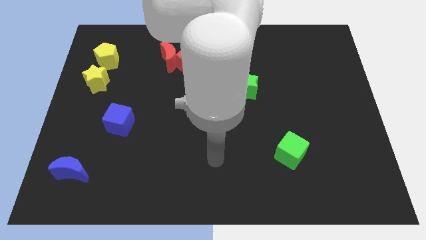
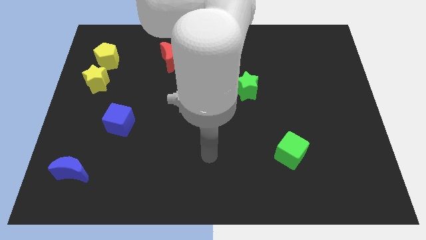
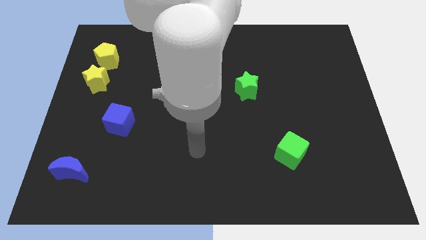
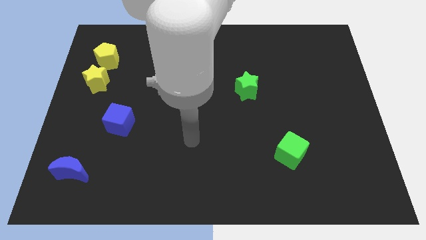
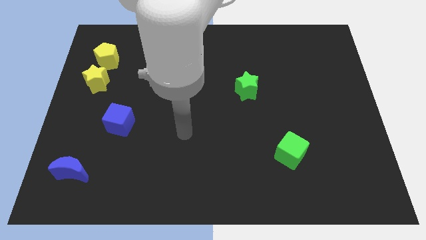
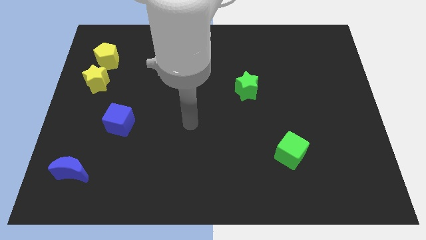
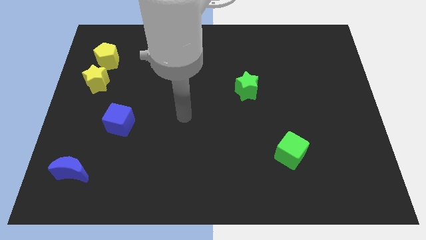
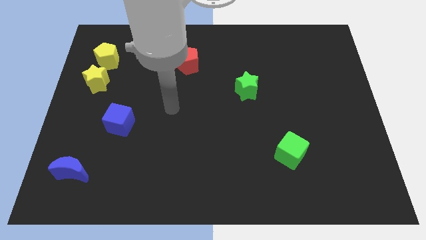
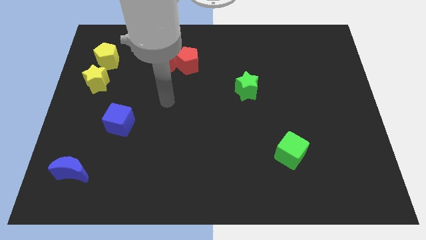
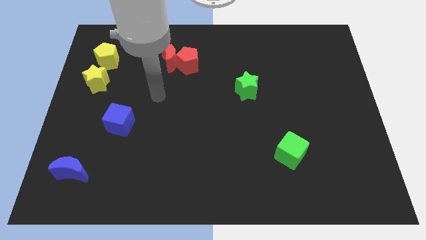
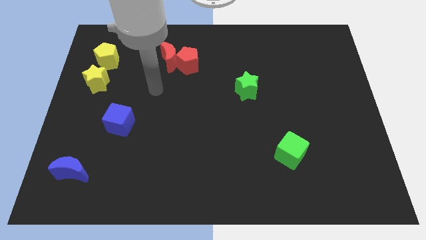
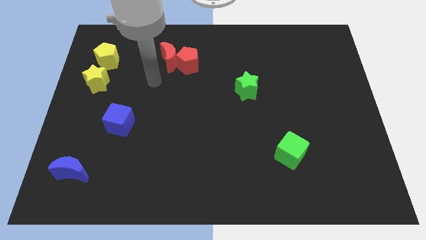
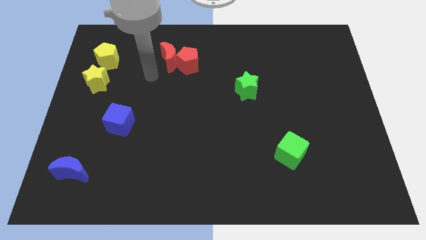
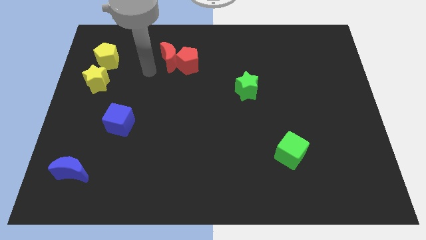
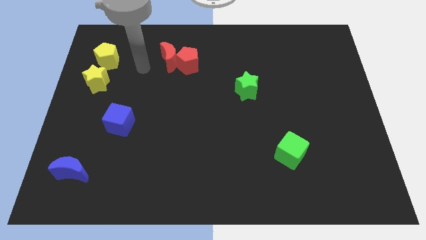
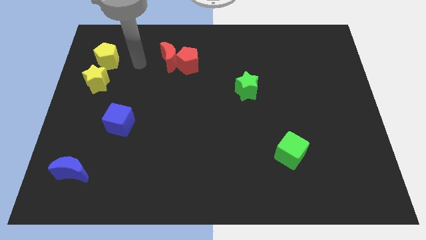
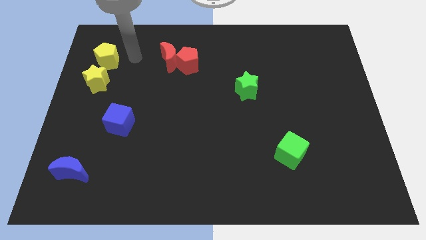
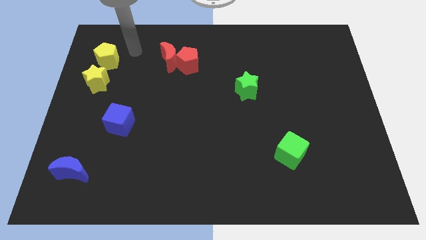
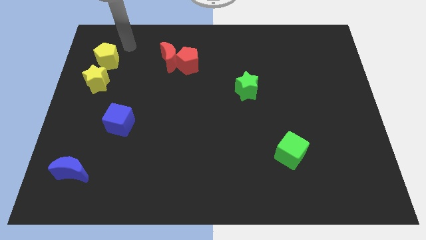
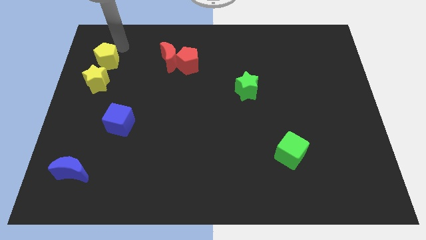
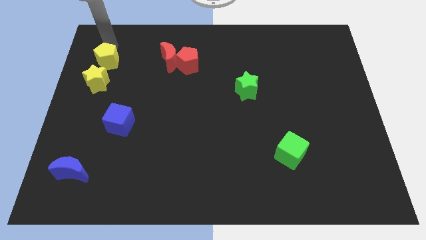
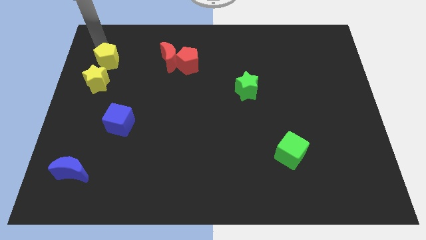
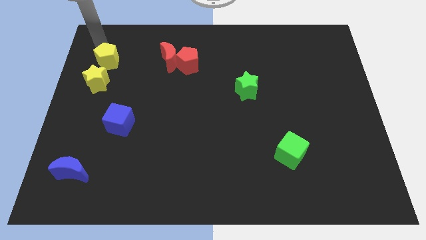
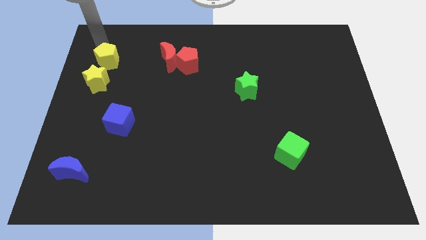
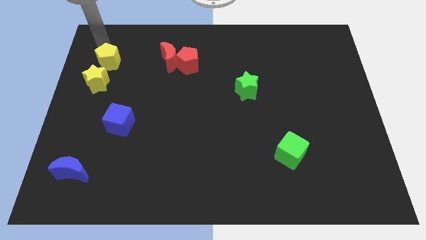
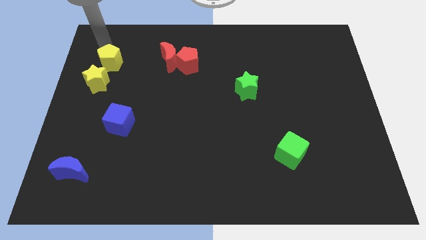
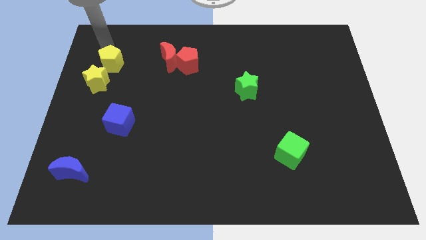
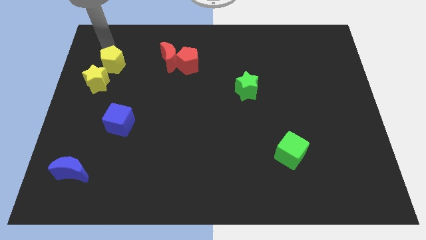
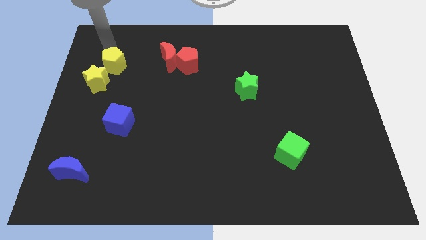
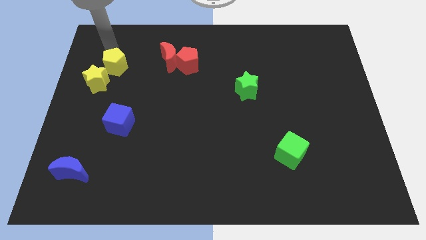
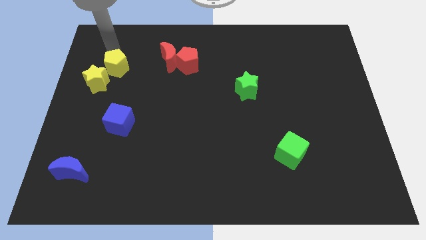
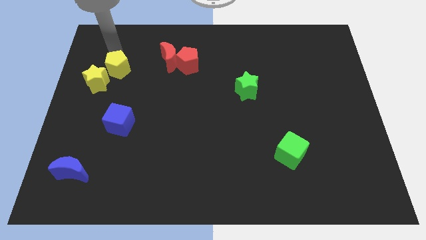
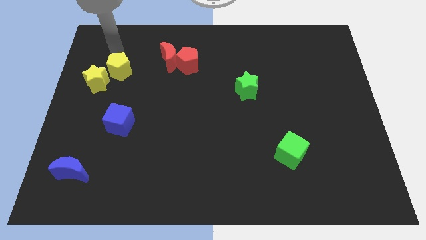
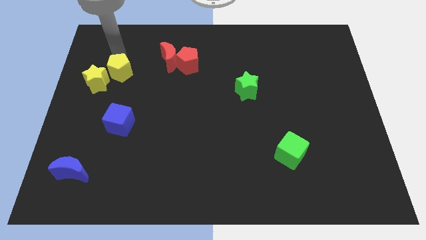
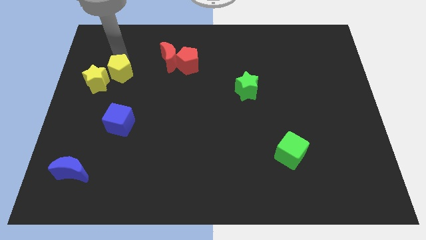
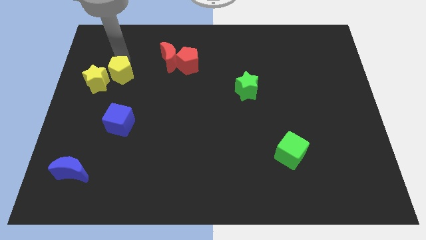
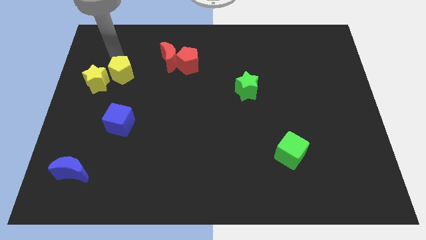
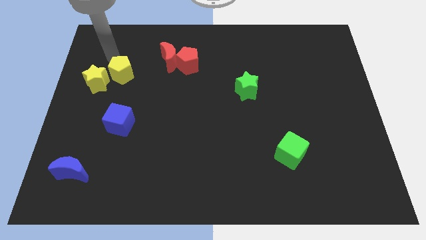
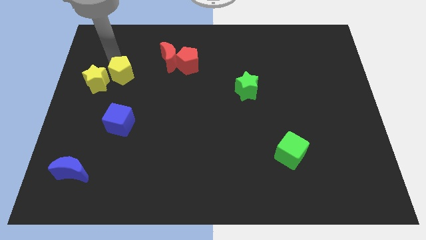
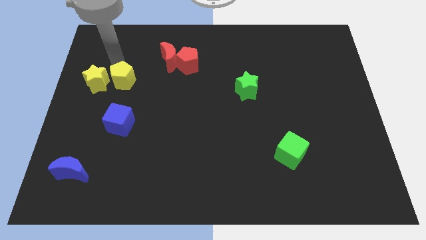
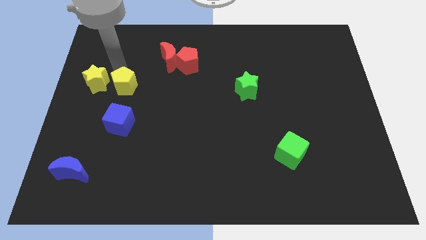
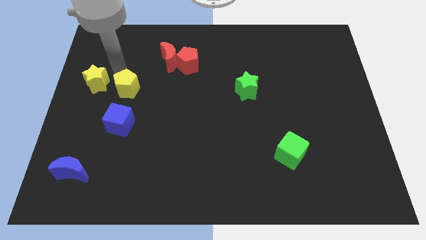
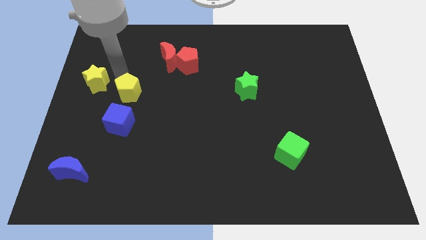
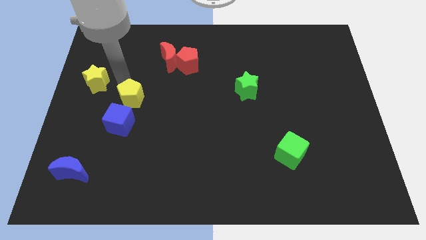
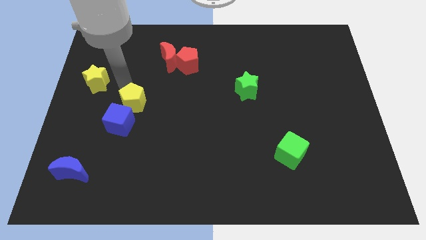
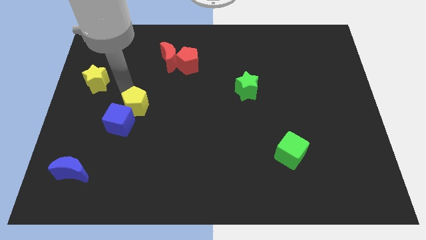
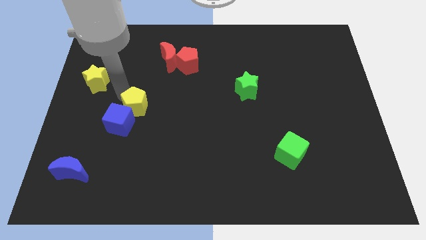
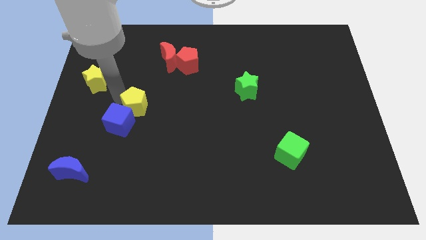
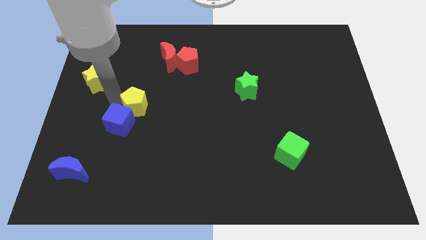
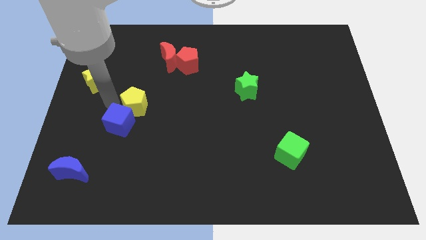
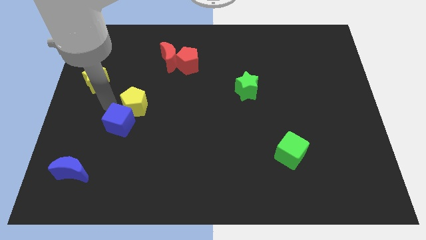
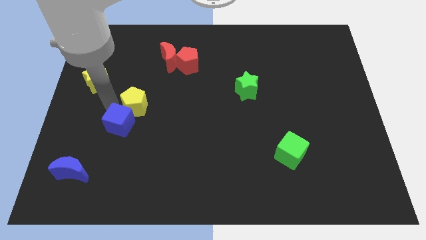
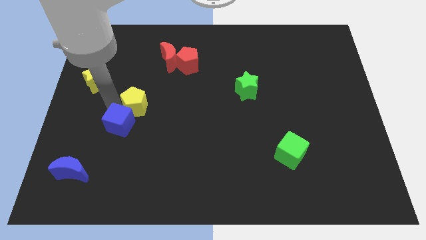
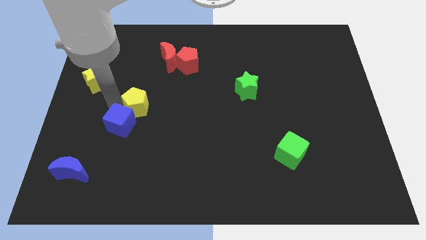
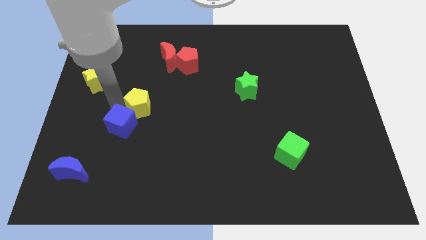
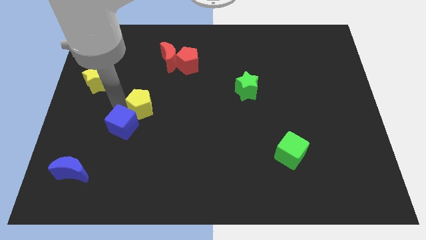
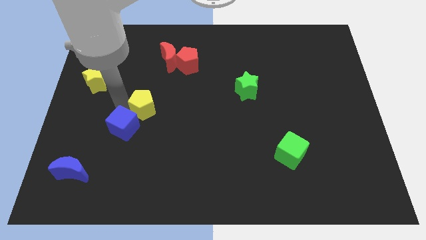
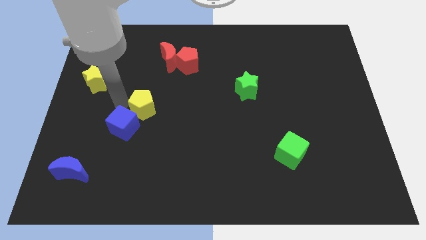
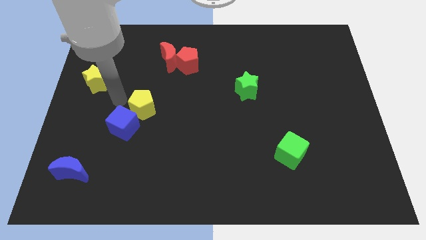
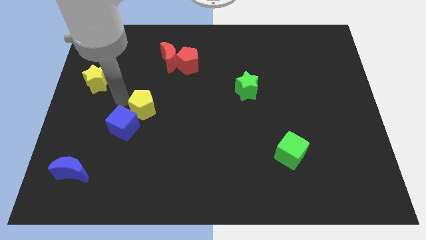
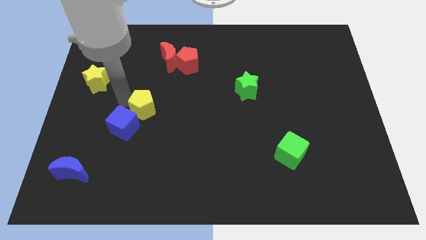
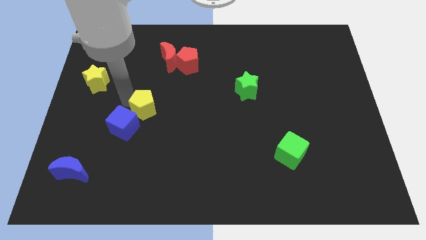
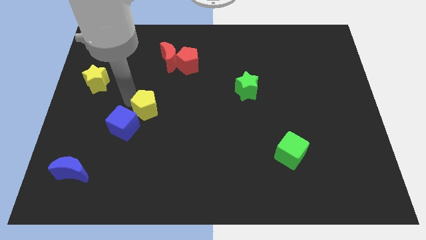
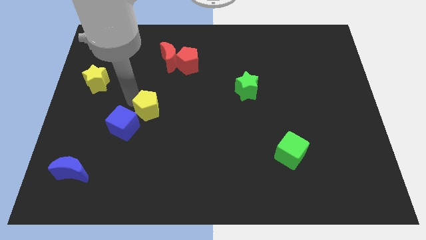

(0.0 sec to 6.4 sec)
push the yellow pentagon down and right

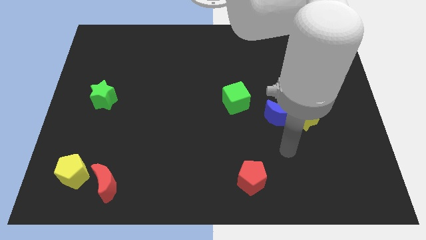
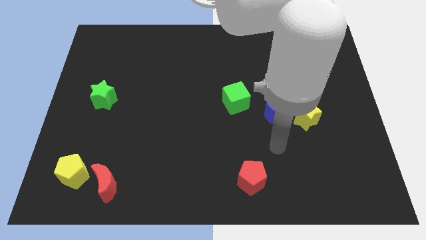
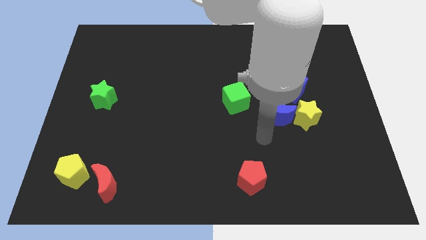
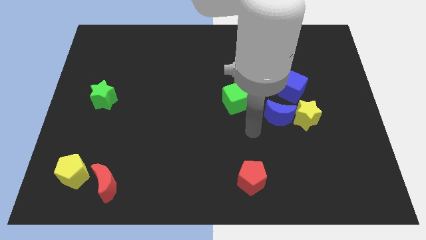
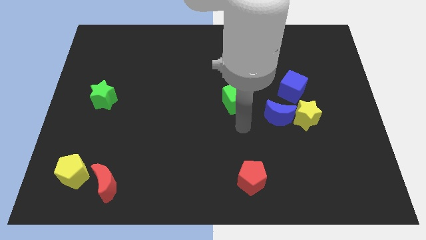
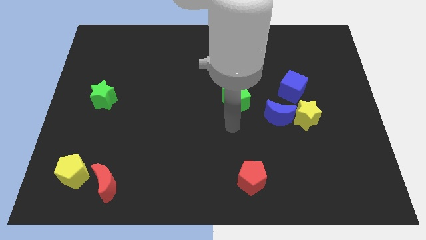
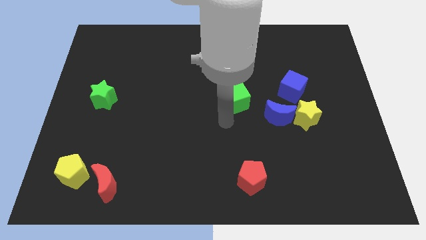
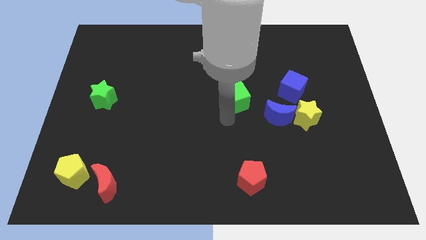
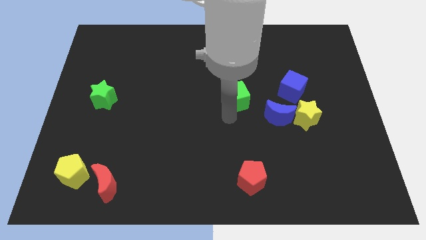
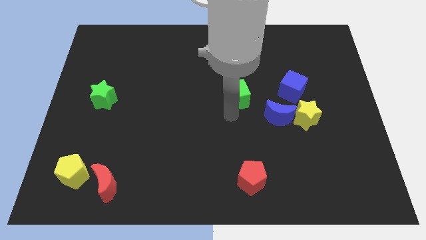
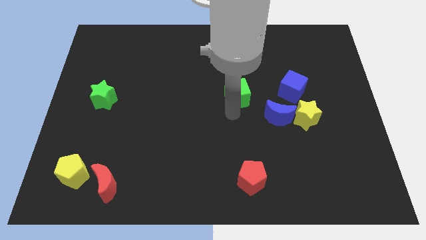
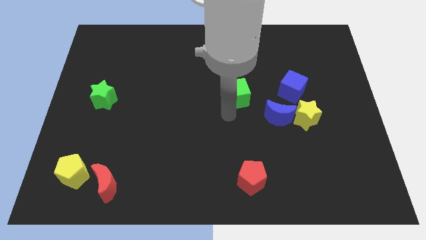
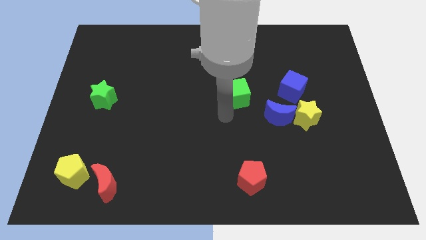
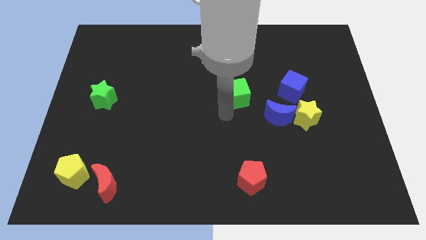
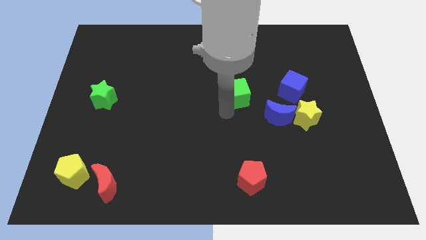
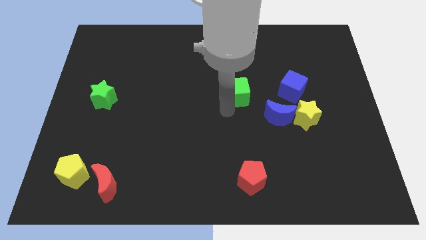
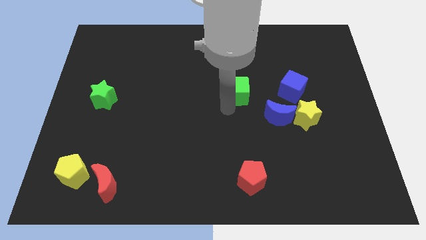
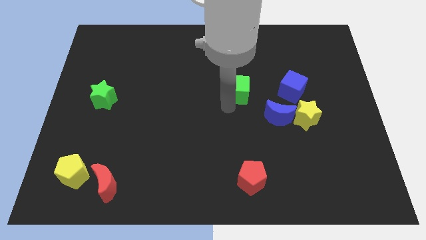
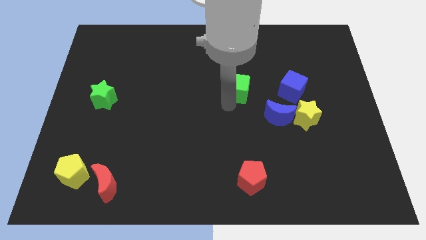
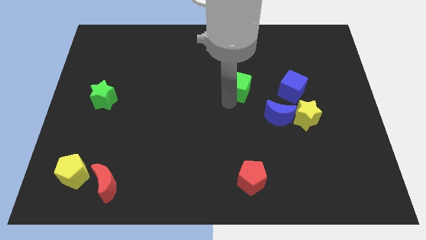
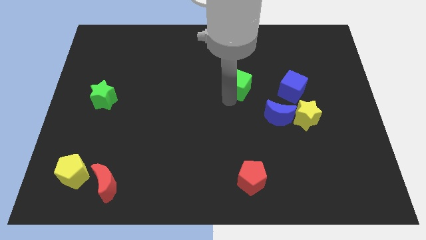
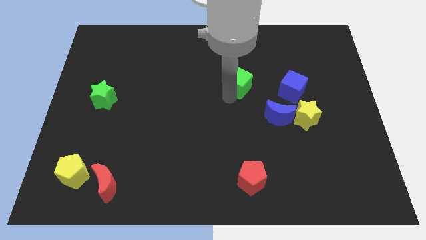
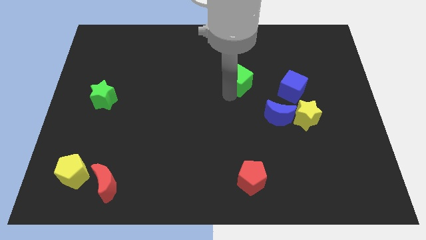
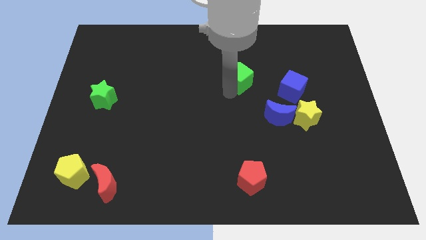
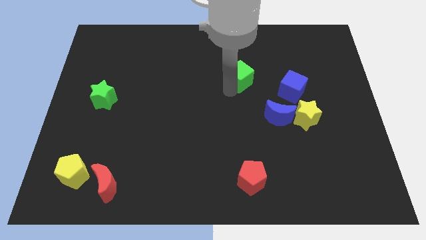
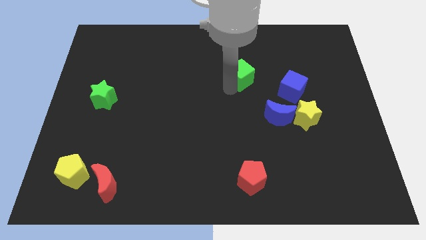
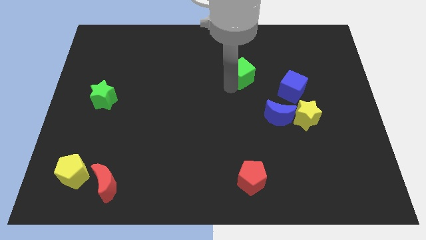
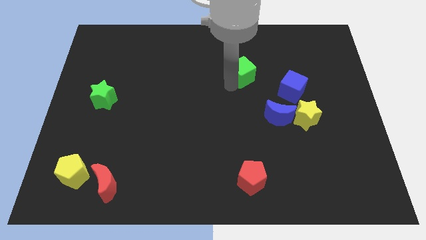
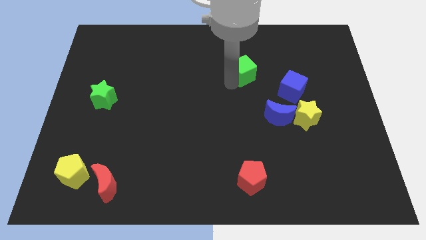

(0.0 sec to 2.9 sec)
slightly move the green cube up and right
